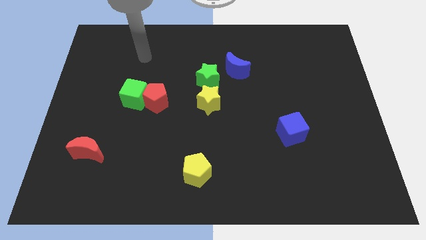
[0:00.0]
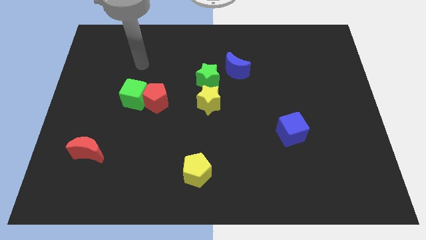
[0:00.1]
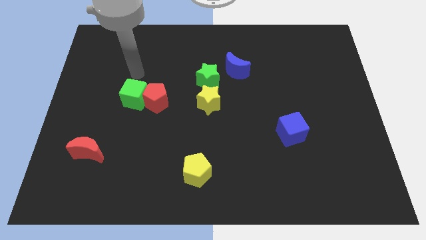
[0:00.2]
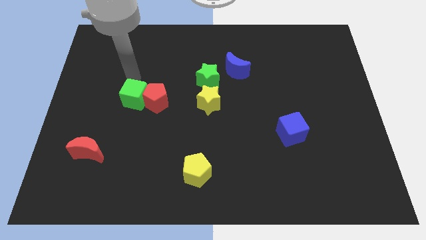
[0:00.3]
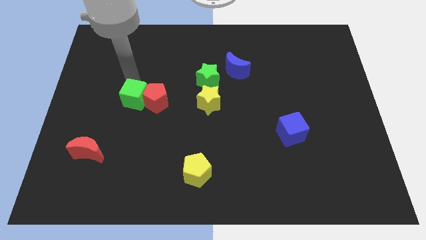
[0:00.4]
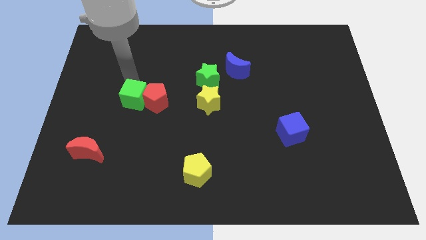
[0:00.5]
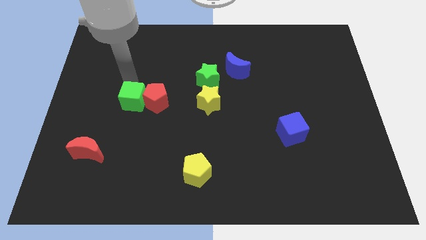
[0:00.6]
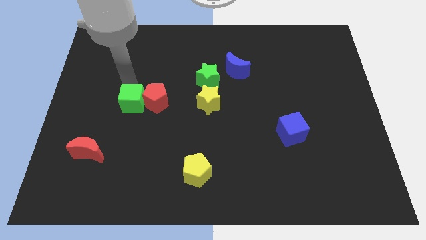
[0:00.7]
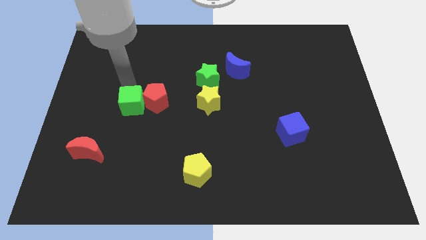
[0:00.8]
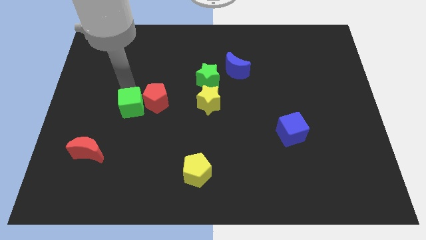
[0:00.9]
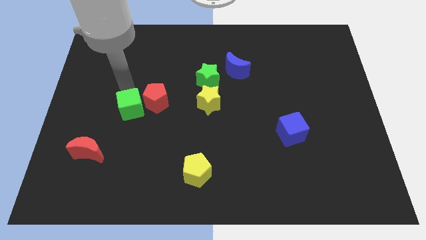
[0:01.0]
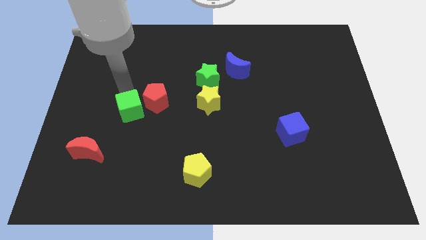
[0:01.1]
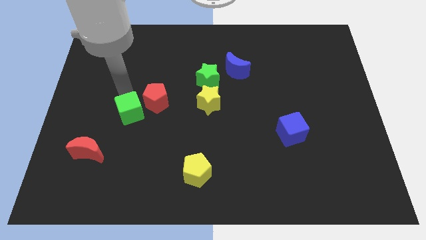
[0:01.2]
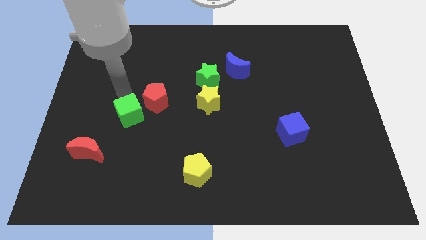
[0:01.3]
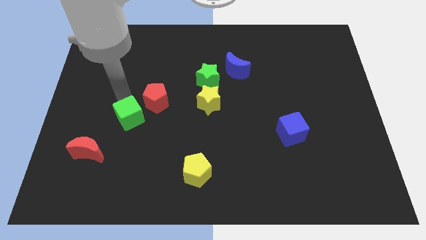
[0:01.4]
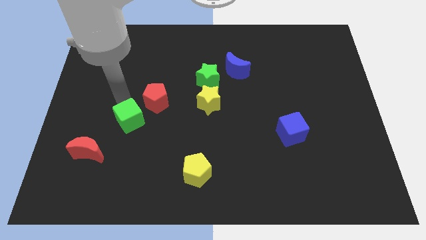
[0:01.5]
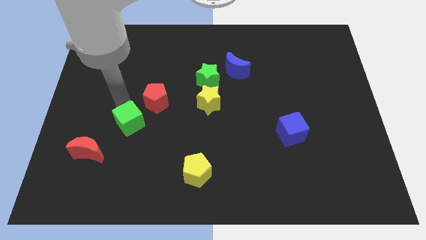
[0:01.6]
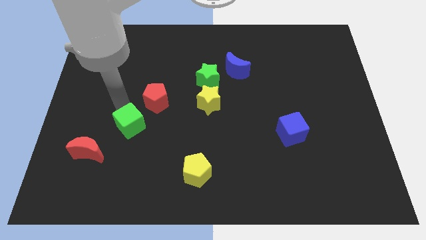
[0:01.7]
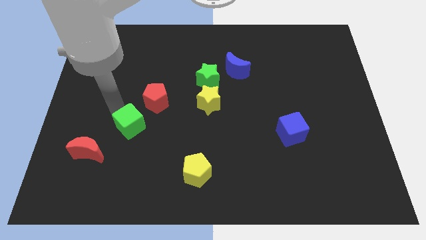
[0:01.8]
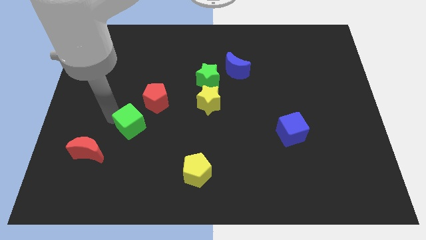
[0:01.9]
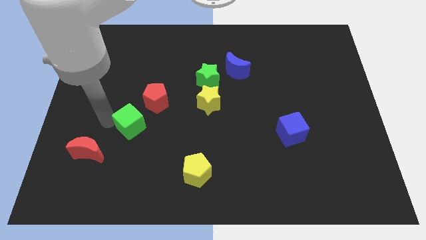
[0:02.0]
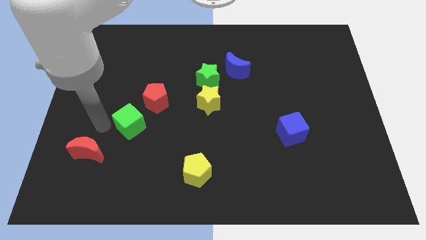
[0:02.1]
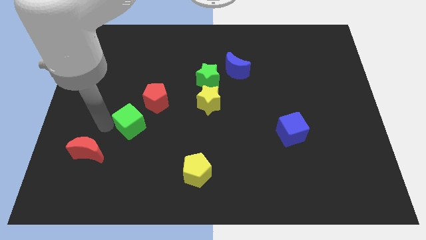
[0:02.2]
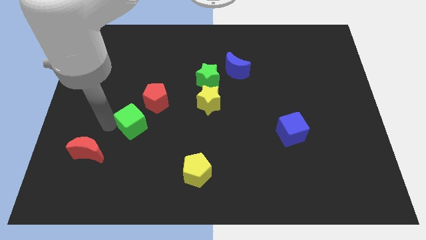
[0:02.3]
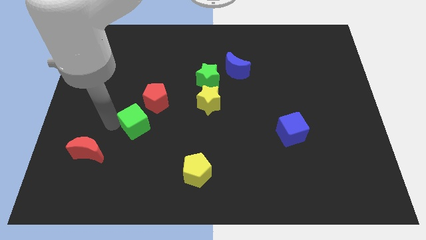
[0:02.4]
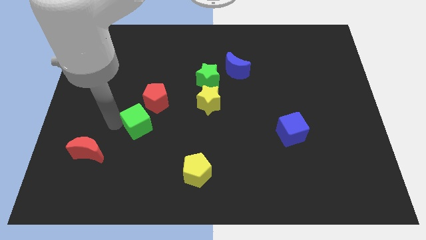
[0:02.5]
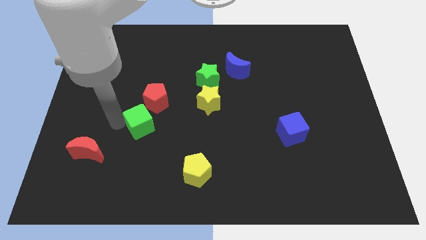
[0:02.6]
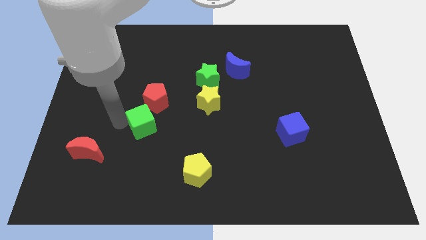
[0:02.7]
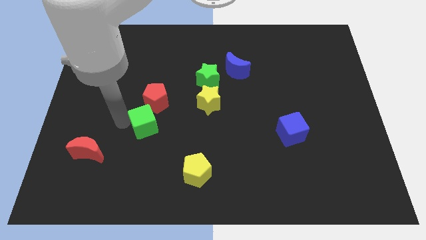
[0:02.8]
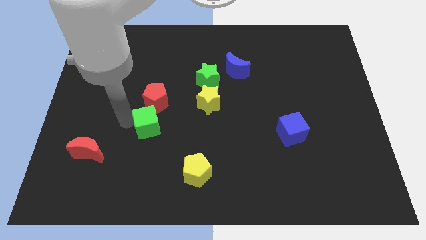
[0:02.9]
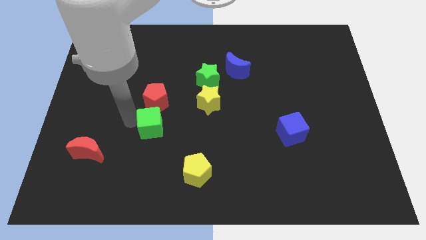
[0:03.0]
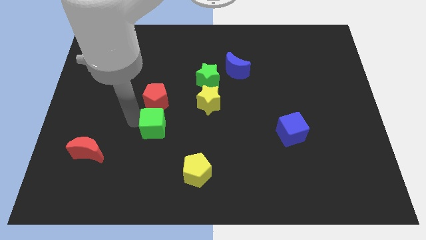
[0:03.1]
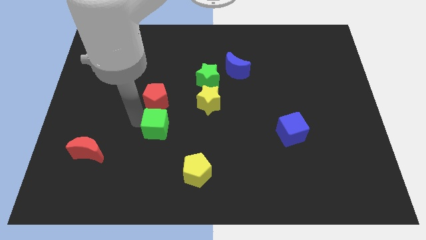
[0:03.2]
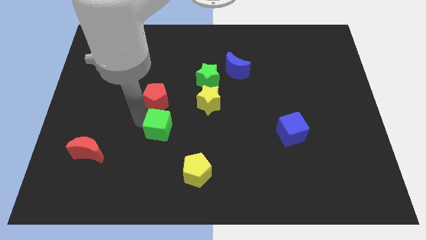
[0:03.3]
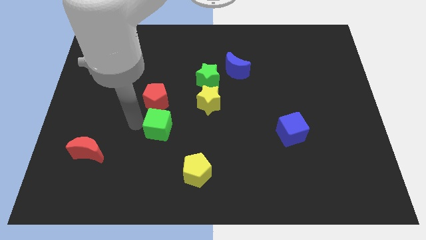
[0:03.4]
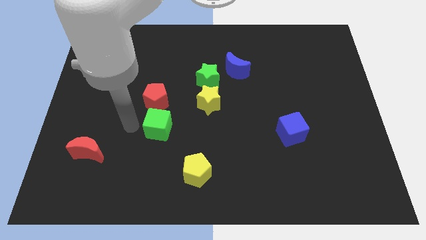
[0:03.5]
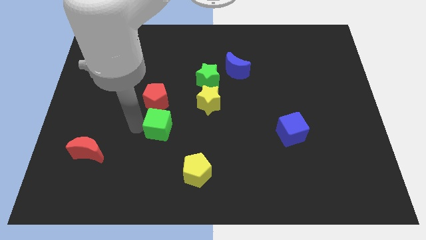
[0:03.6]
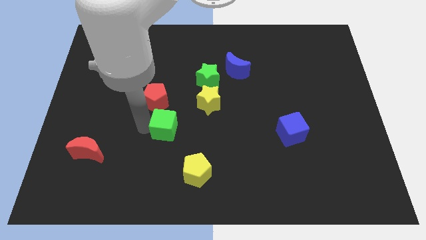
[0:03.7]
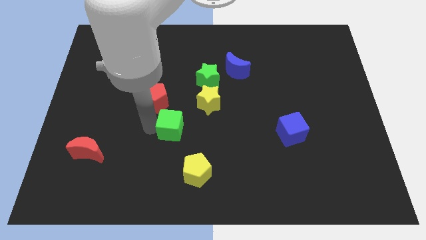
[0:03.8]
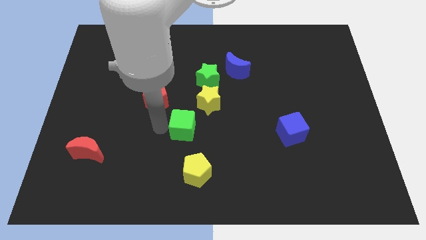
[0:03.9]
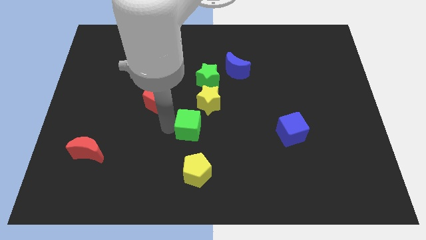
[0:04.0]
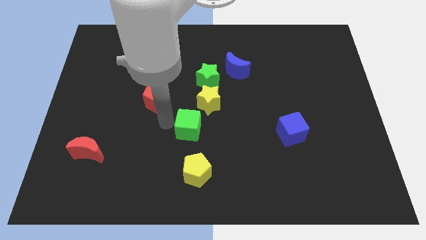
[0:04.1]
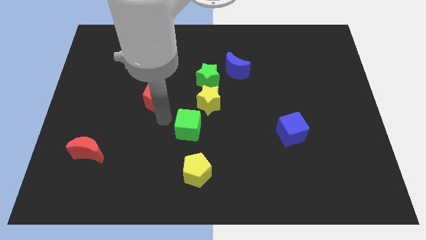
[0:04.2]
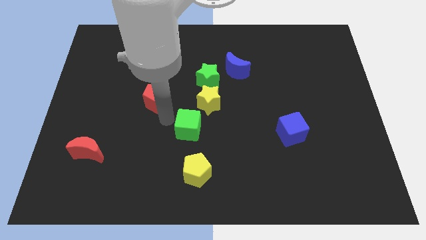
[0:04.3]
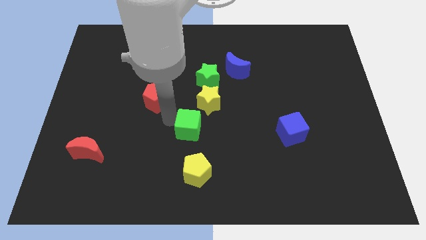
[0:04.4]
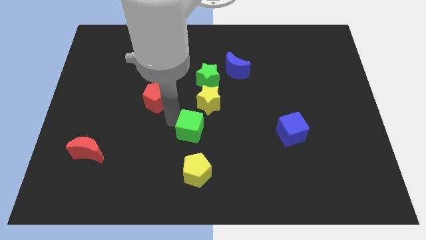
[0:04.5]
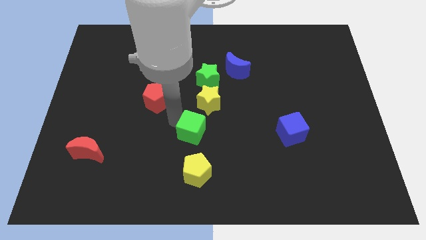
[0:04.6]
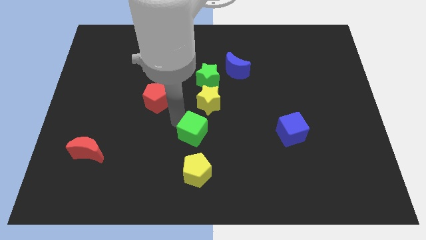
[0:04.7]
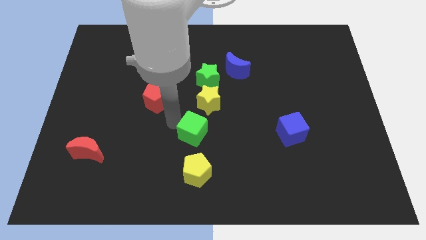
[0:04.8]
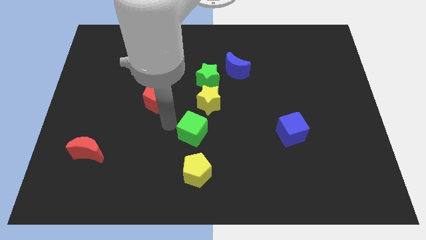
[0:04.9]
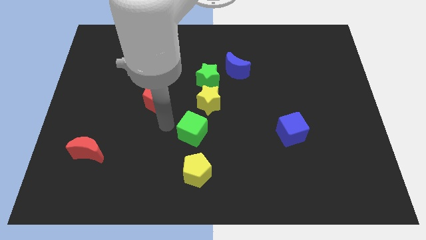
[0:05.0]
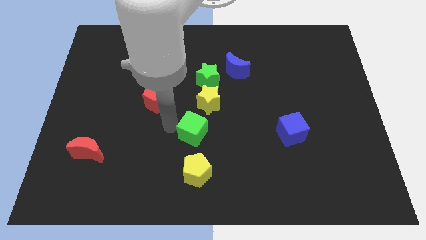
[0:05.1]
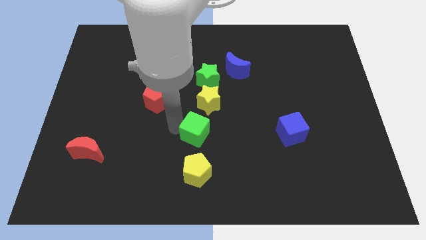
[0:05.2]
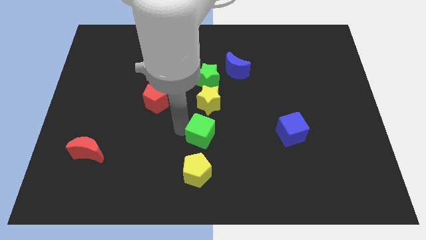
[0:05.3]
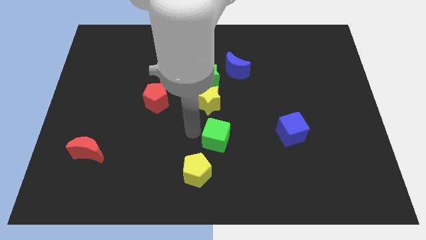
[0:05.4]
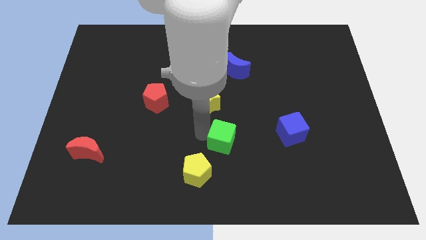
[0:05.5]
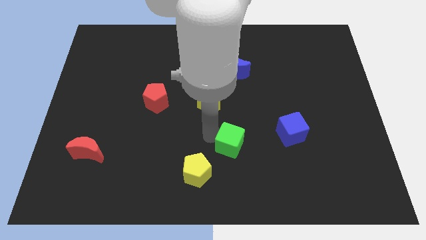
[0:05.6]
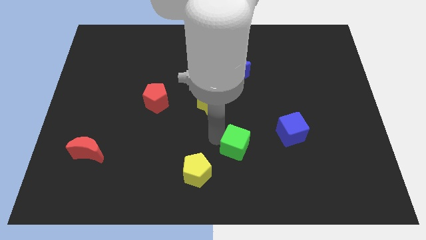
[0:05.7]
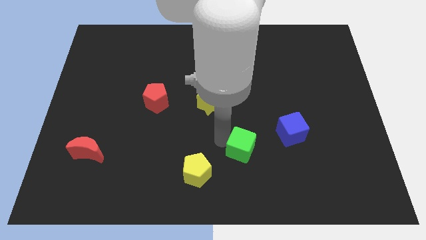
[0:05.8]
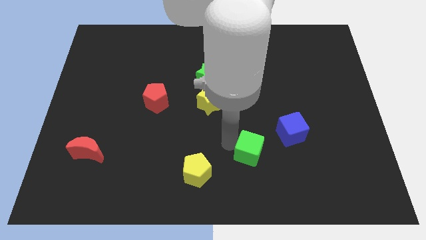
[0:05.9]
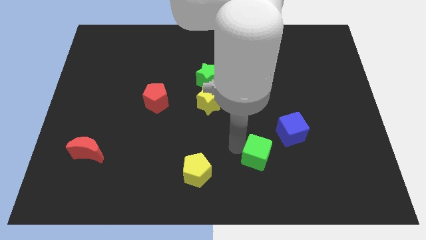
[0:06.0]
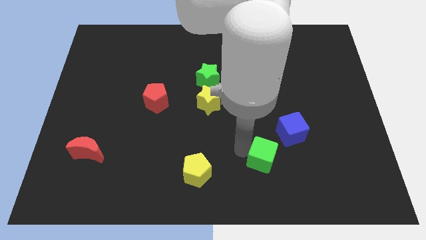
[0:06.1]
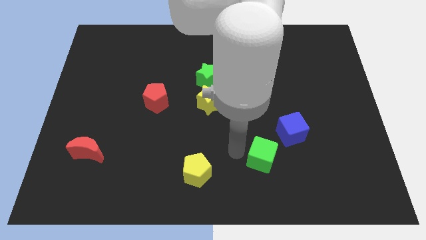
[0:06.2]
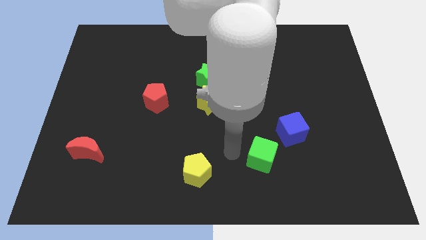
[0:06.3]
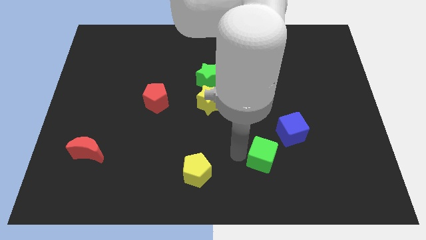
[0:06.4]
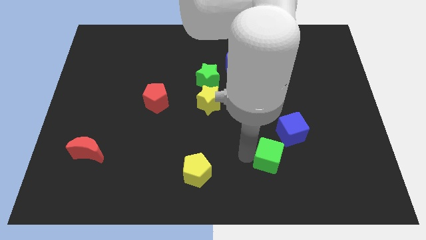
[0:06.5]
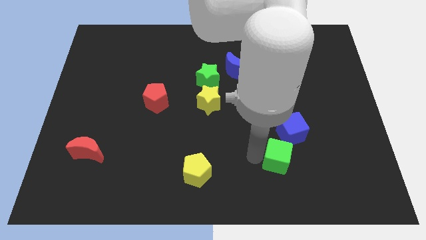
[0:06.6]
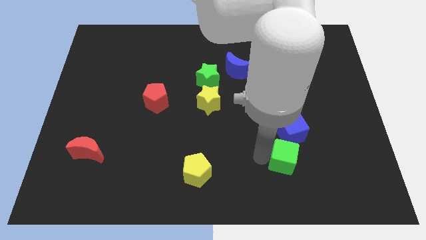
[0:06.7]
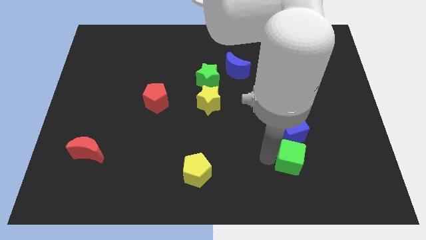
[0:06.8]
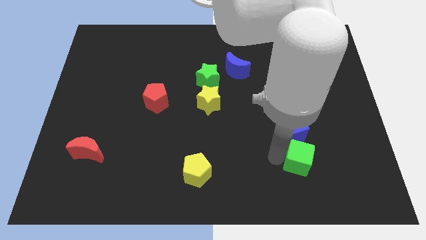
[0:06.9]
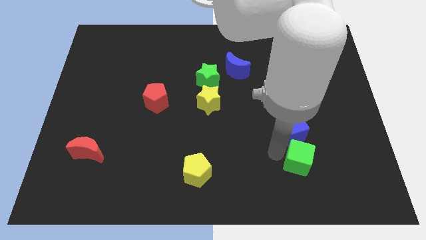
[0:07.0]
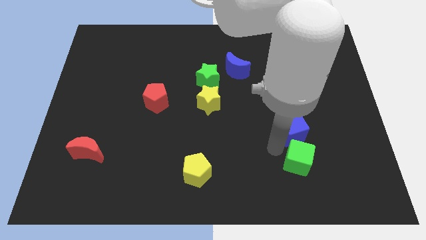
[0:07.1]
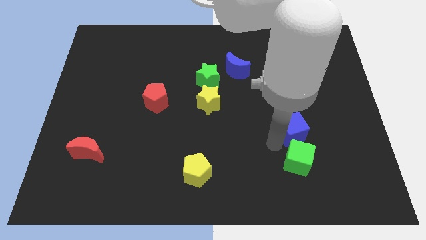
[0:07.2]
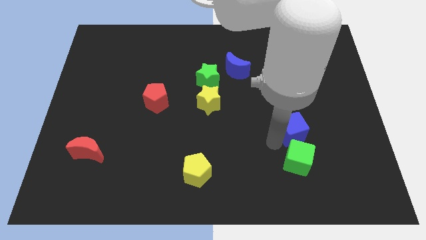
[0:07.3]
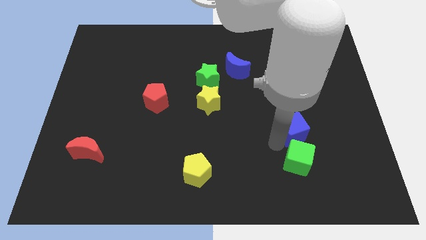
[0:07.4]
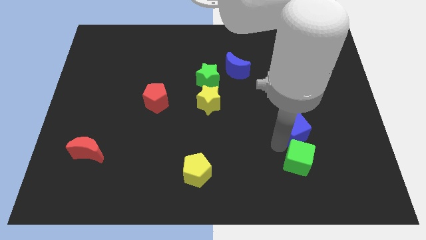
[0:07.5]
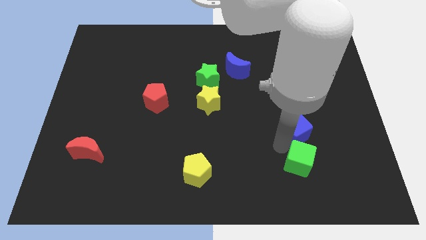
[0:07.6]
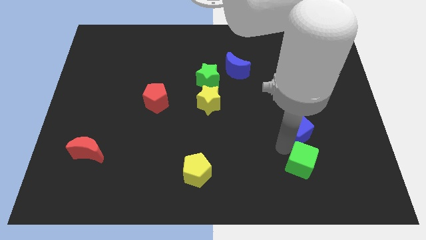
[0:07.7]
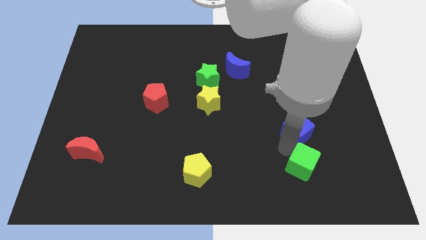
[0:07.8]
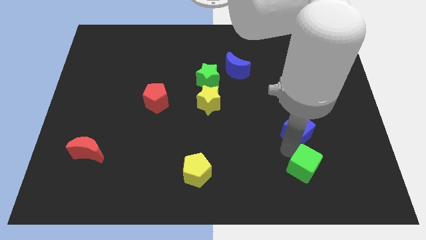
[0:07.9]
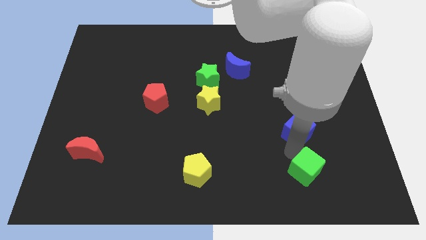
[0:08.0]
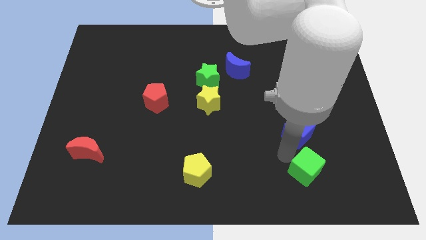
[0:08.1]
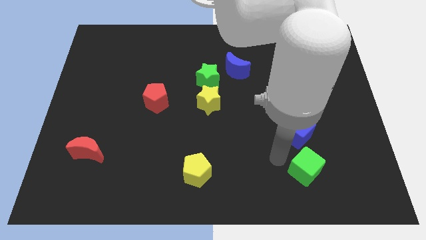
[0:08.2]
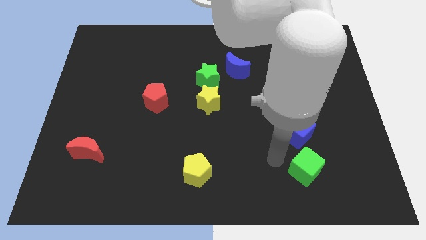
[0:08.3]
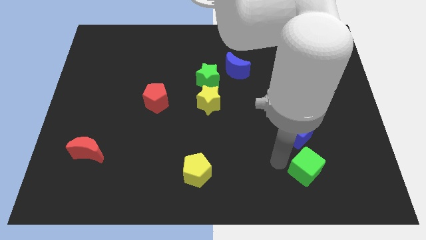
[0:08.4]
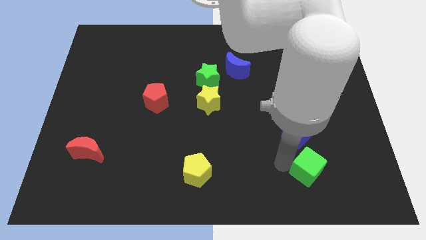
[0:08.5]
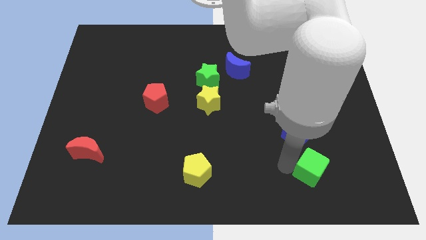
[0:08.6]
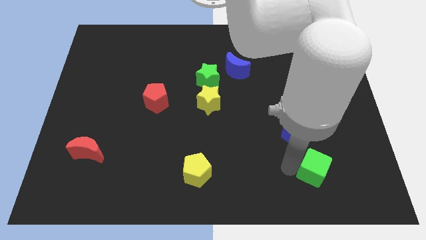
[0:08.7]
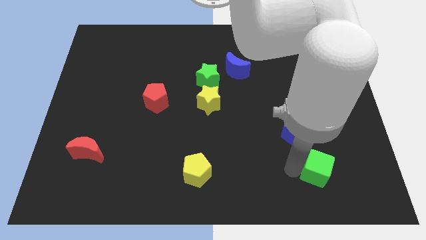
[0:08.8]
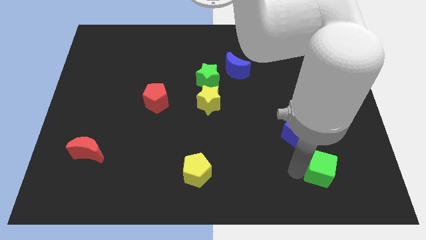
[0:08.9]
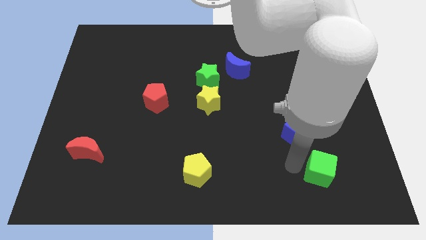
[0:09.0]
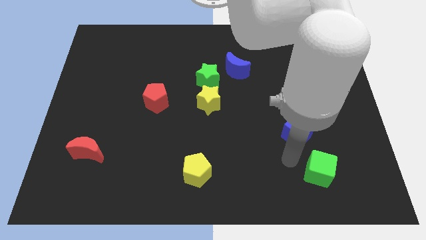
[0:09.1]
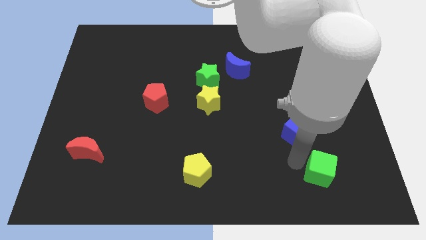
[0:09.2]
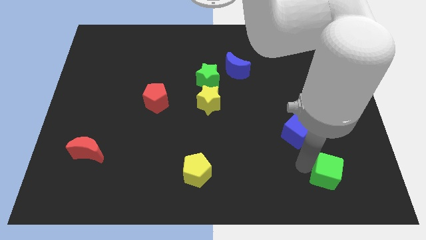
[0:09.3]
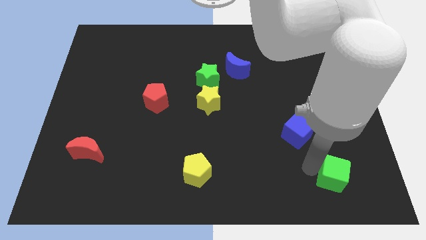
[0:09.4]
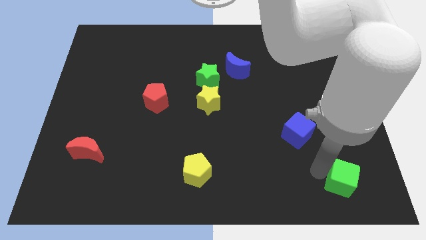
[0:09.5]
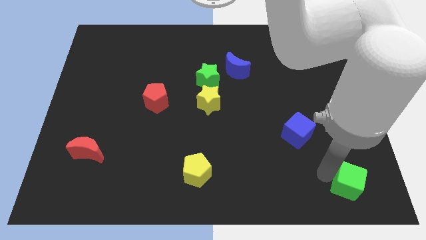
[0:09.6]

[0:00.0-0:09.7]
slide the green cube to the bottom right
